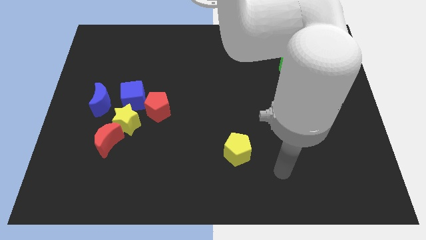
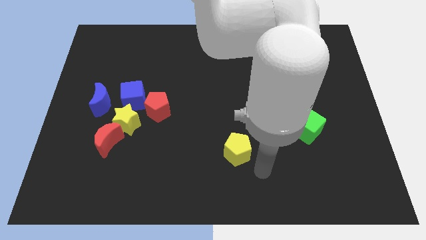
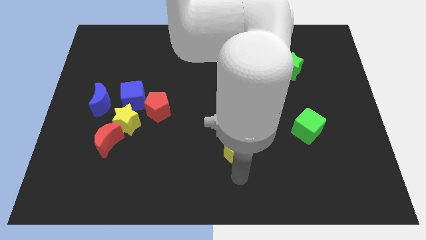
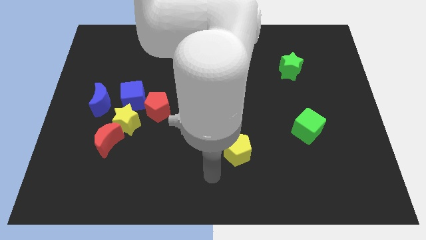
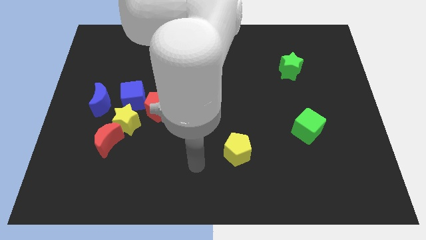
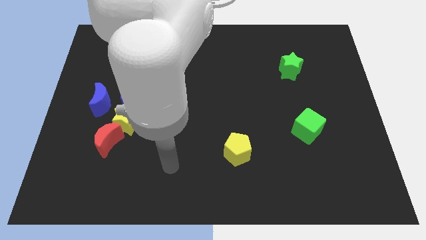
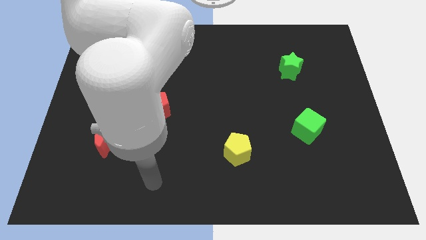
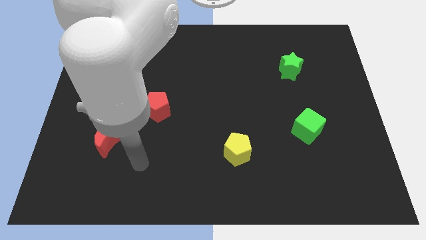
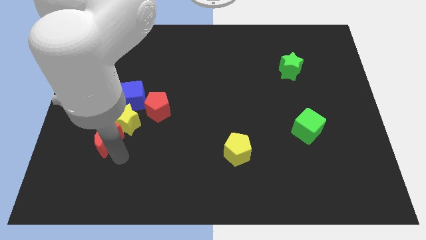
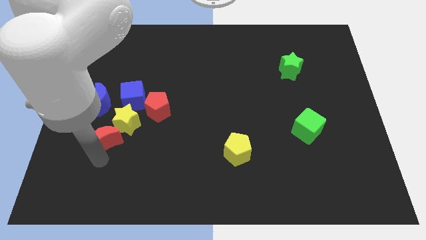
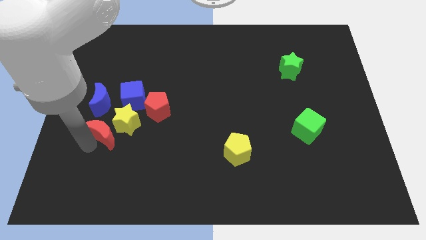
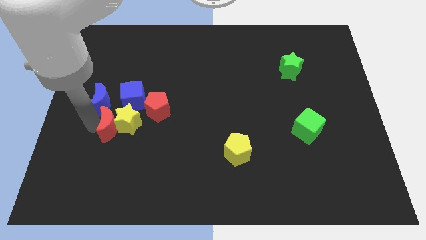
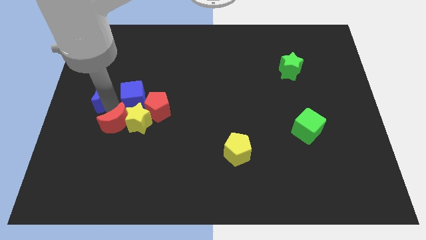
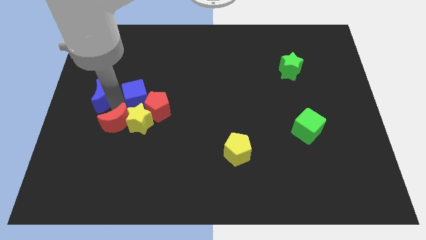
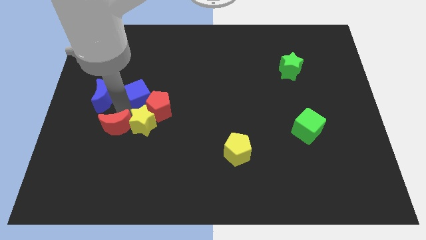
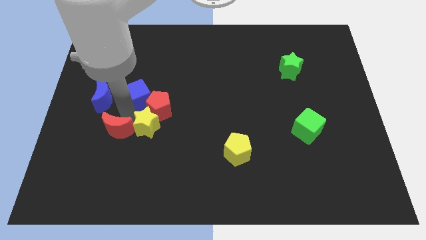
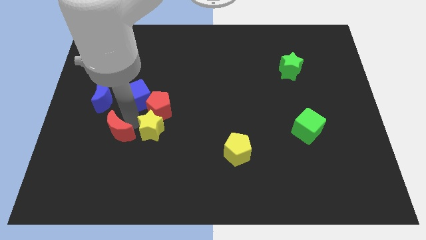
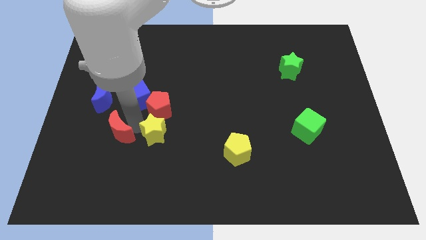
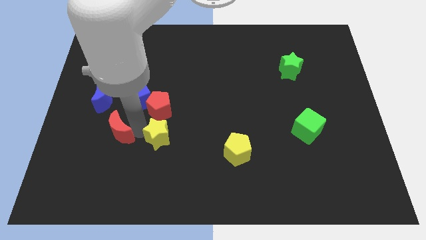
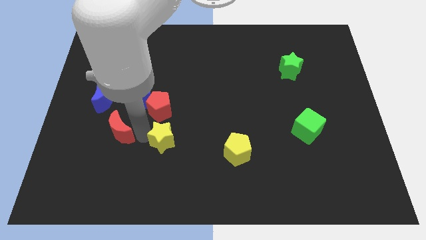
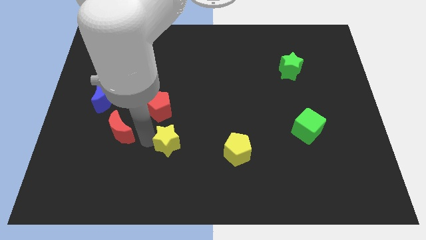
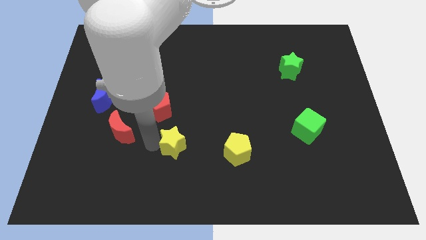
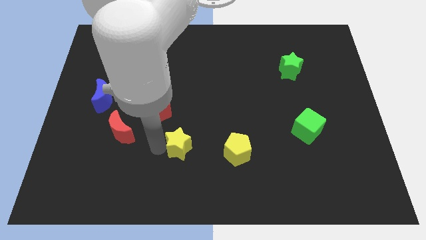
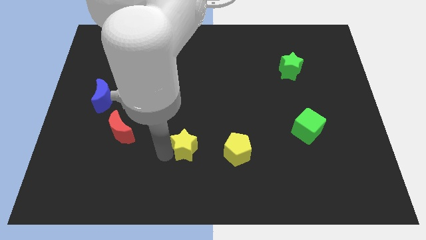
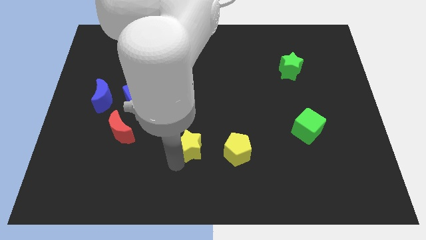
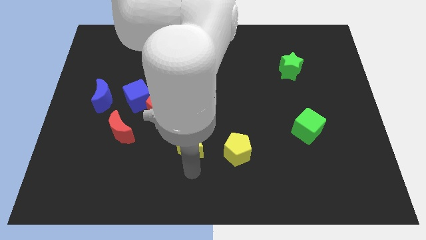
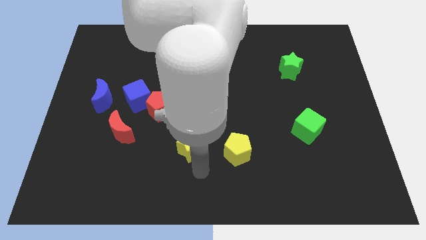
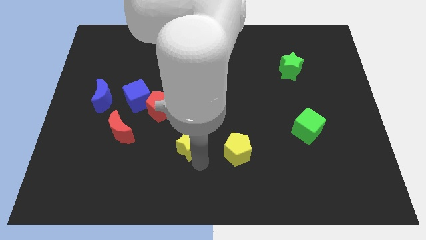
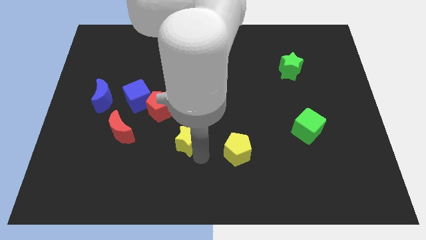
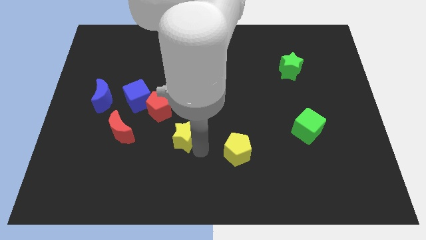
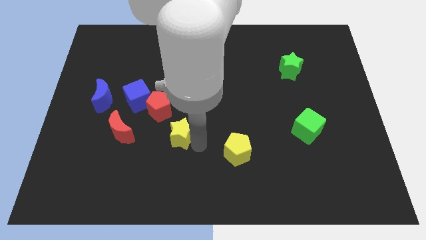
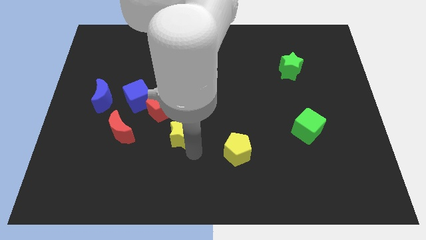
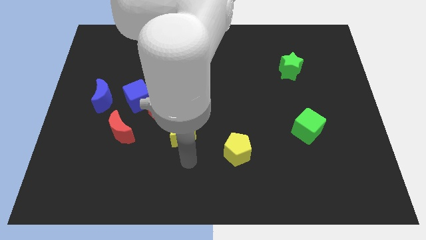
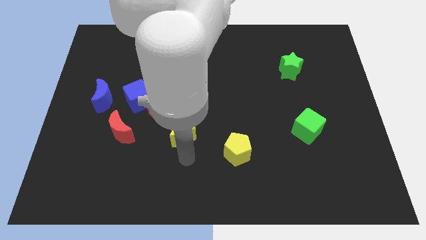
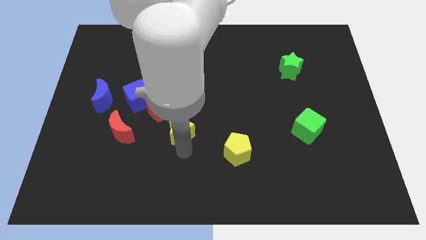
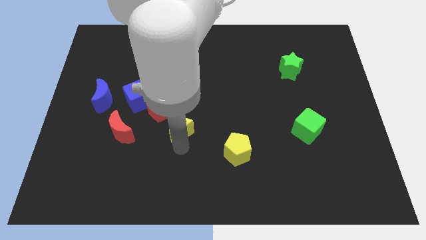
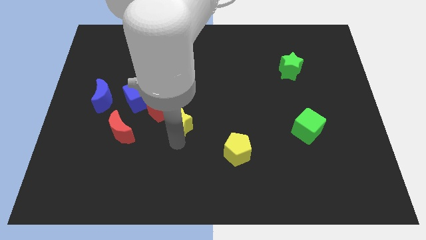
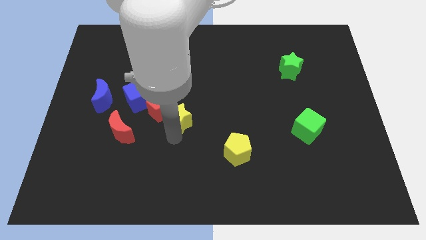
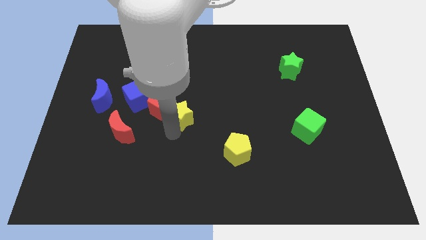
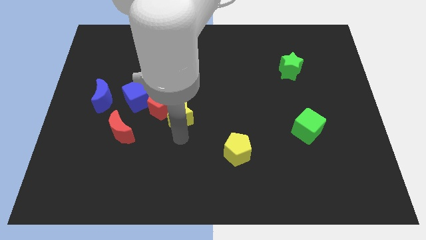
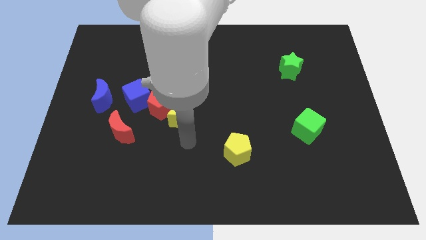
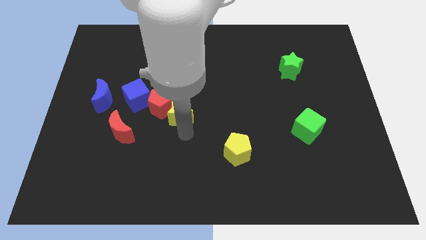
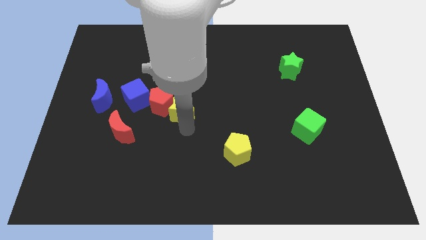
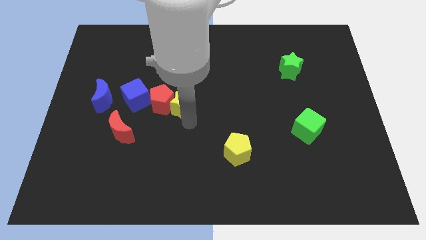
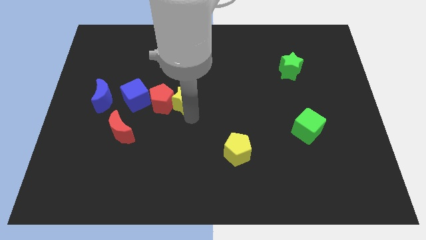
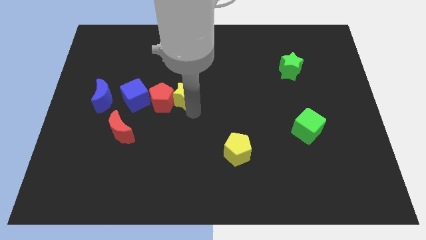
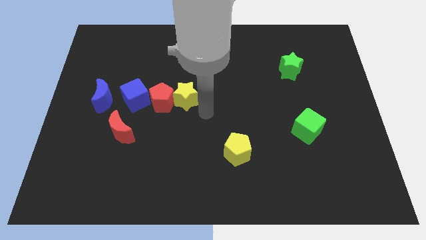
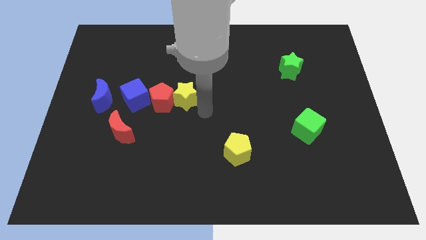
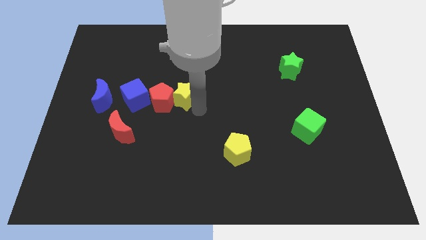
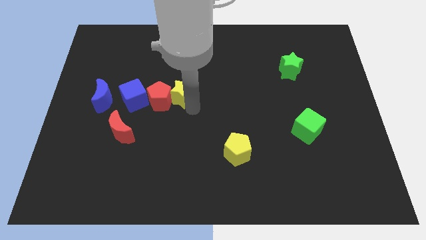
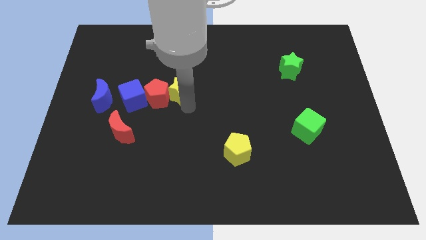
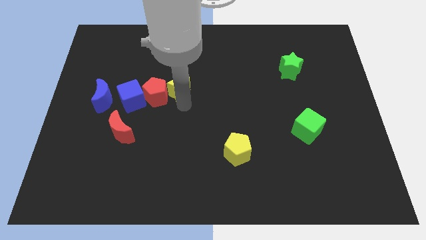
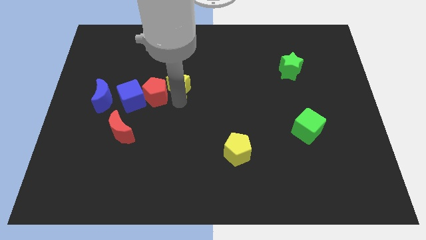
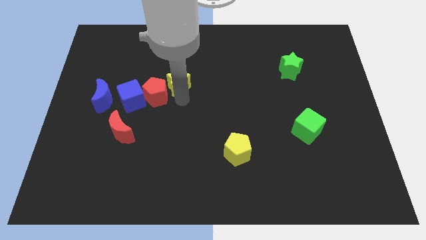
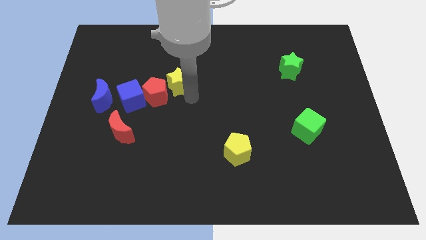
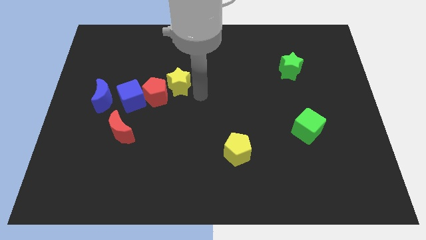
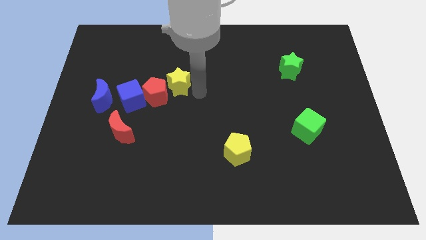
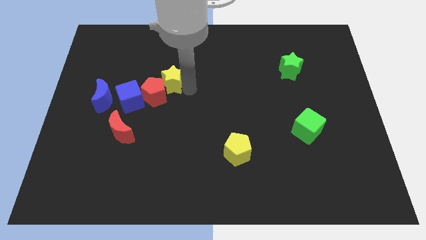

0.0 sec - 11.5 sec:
push the yellow star a little bit up

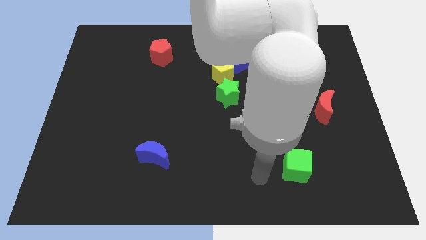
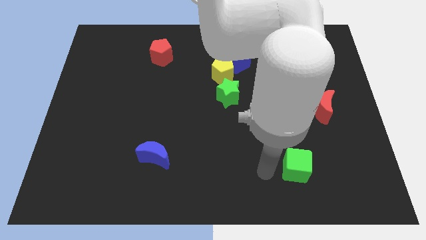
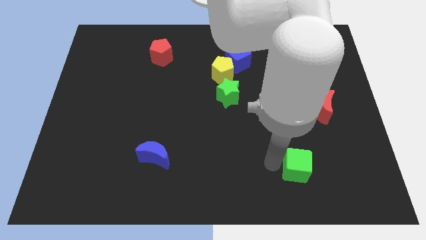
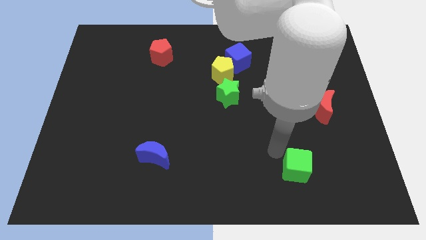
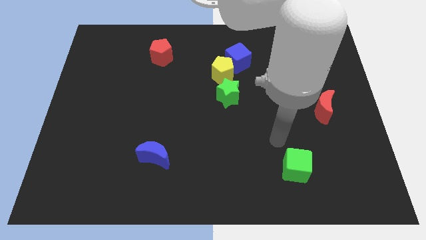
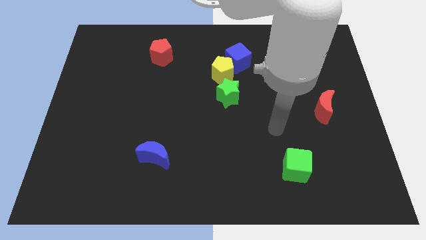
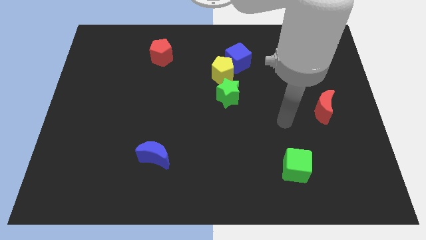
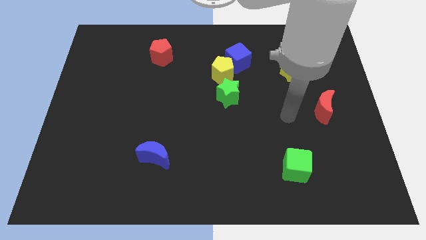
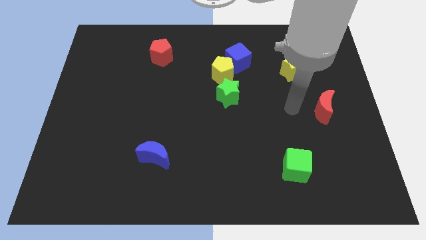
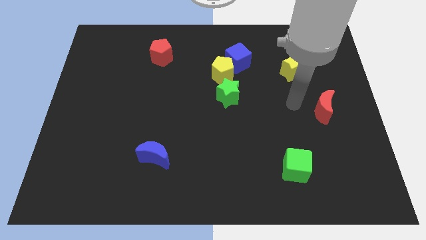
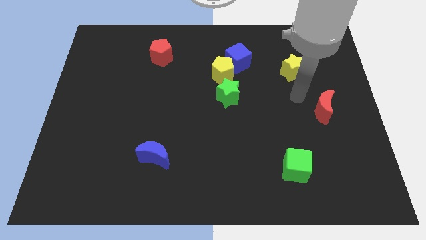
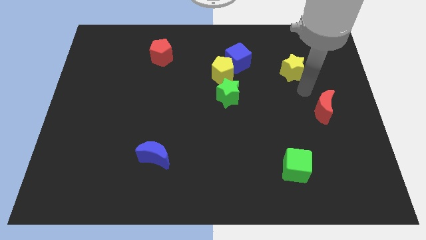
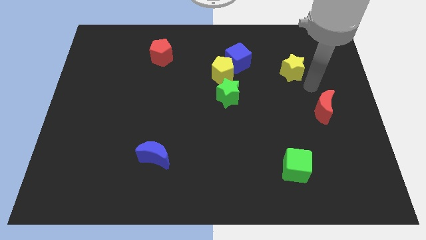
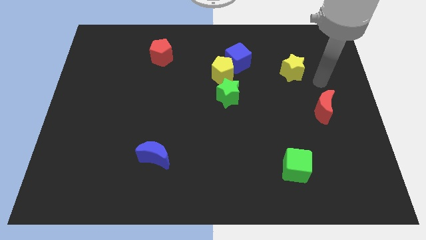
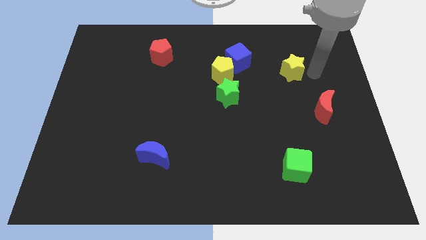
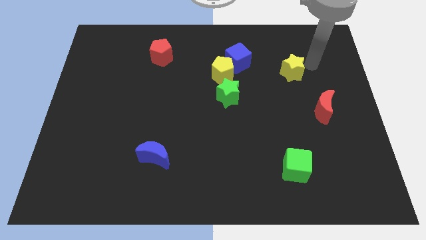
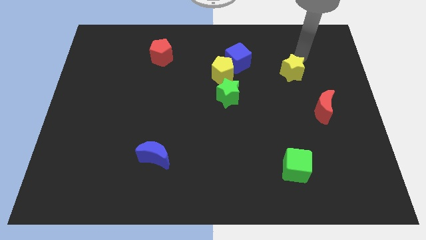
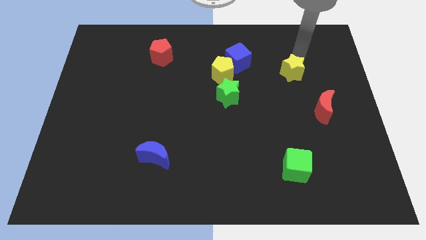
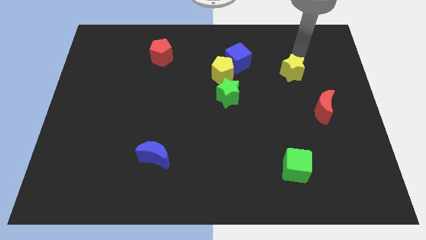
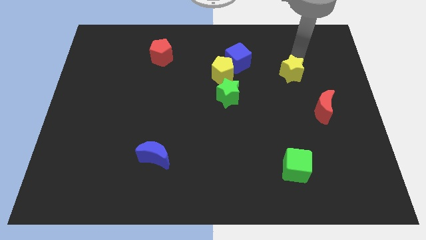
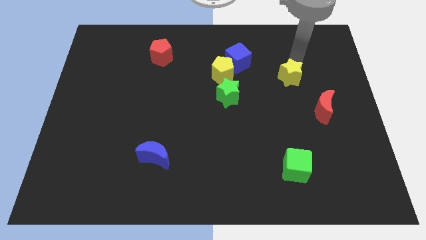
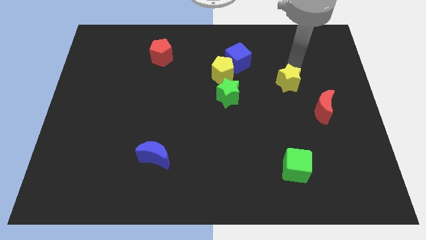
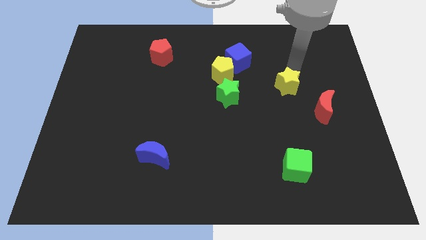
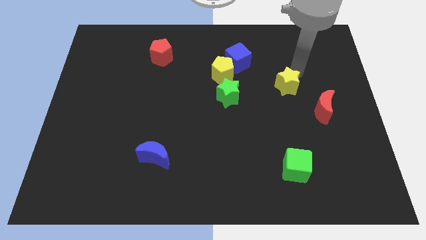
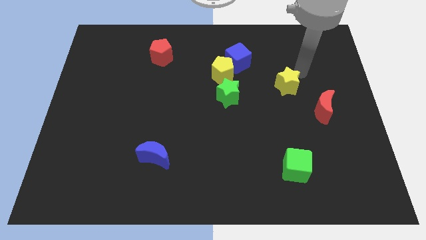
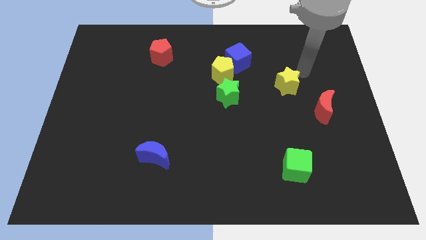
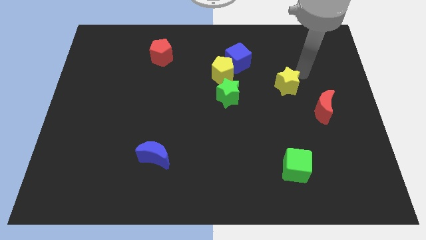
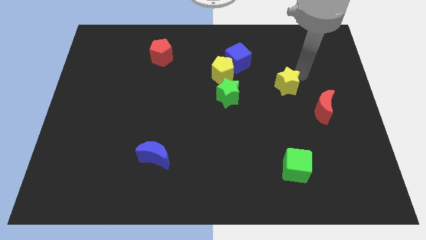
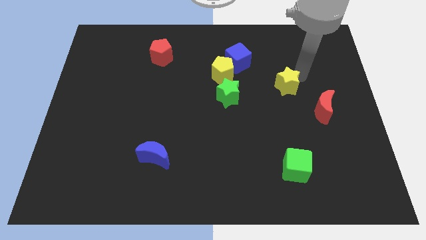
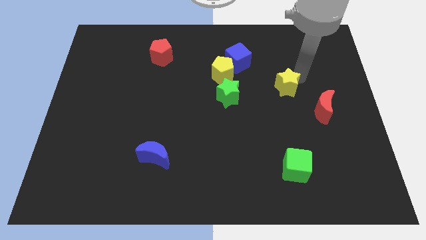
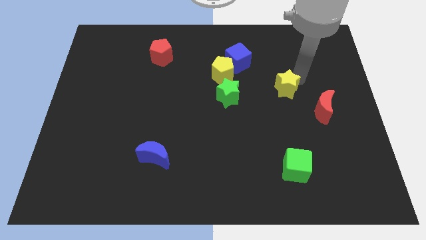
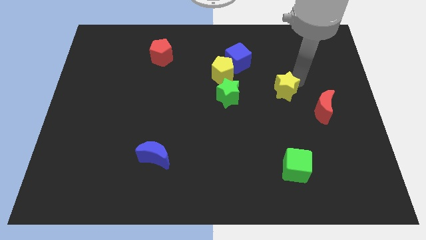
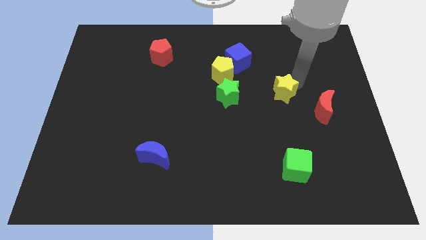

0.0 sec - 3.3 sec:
move the yellow star a bit diagonally down and to the left
